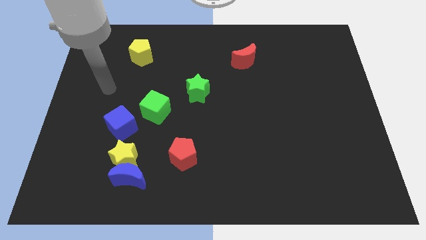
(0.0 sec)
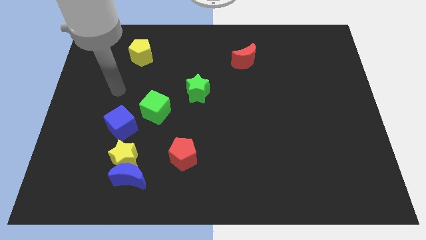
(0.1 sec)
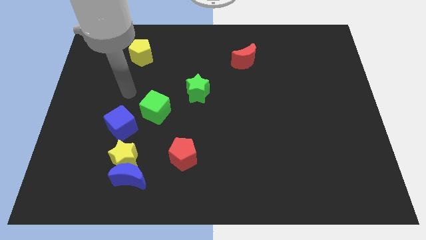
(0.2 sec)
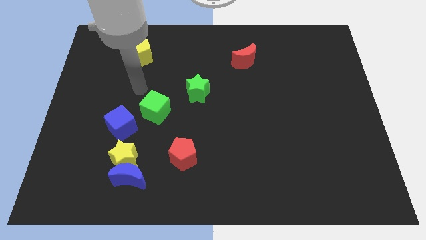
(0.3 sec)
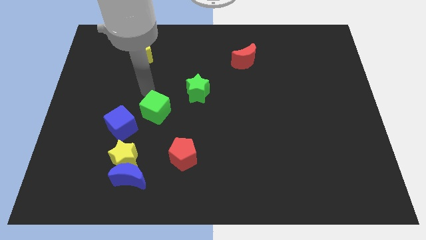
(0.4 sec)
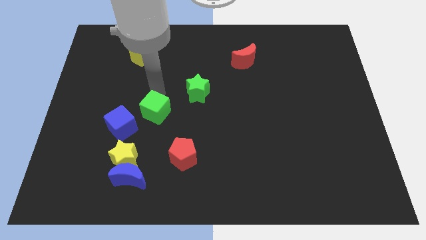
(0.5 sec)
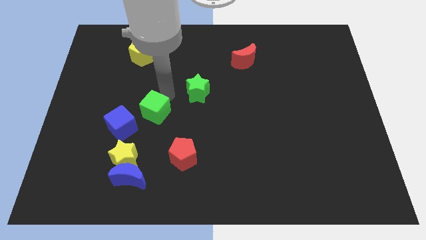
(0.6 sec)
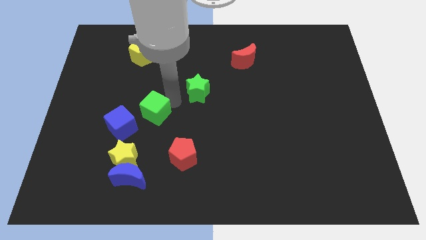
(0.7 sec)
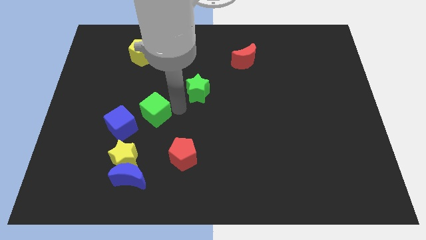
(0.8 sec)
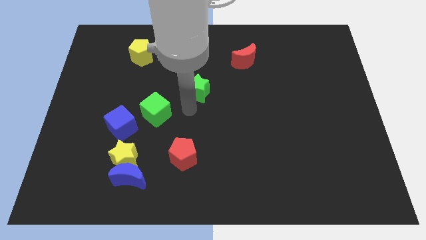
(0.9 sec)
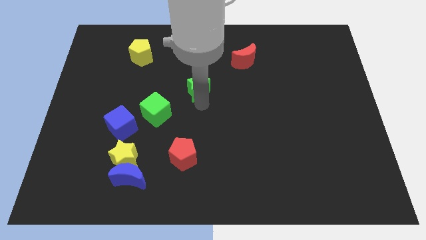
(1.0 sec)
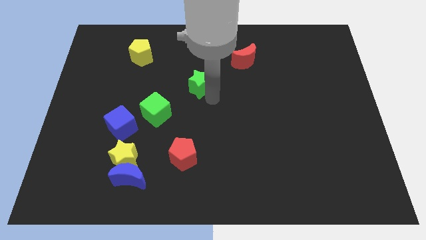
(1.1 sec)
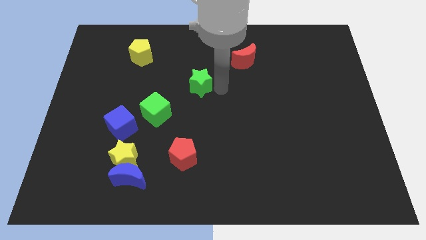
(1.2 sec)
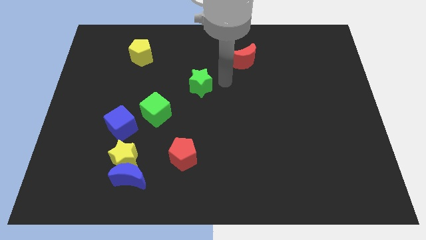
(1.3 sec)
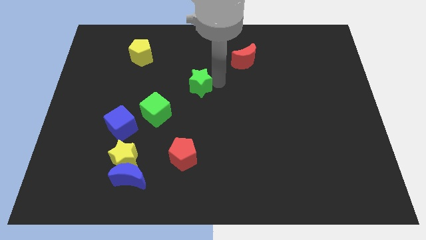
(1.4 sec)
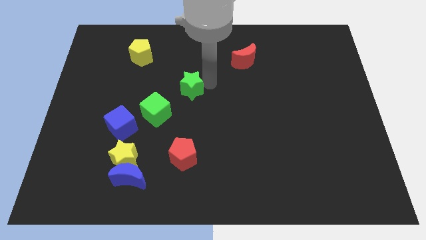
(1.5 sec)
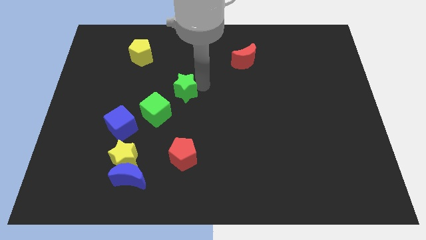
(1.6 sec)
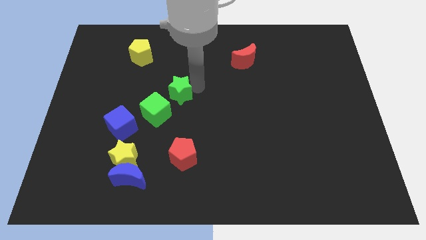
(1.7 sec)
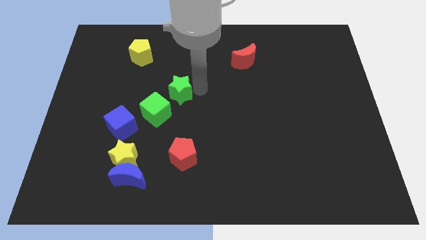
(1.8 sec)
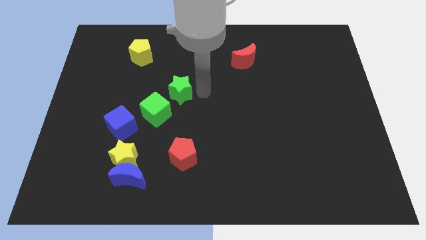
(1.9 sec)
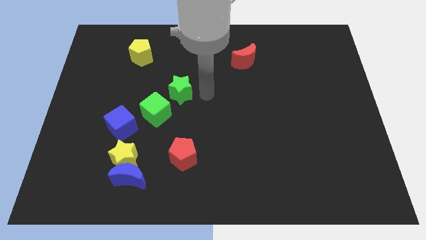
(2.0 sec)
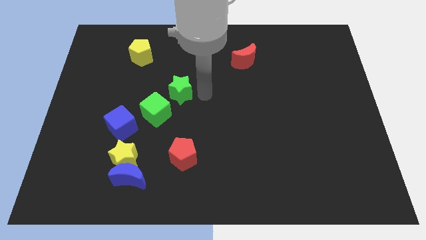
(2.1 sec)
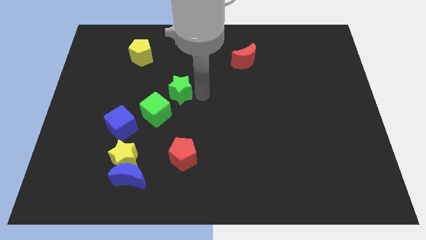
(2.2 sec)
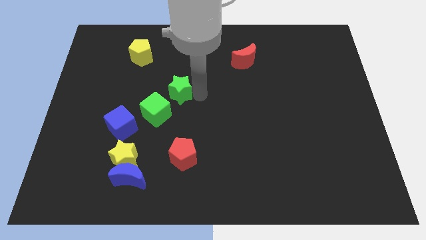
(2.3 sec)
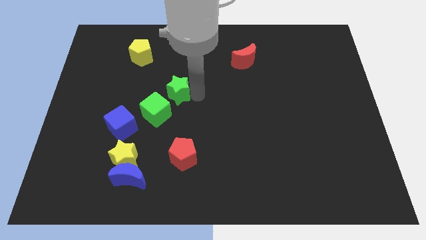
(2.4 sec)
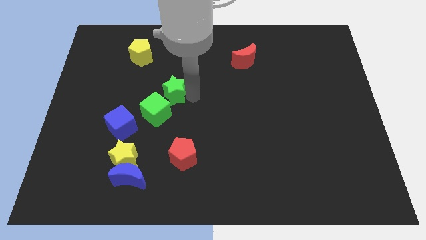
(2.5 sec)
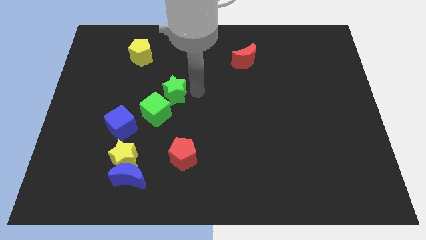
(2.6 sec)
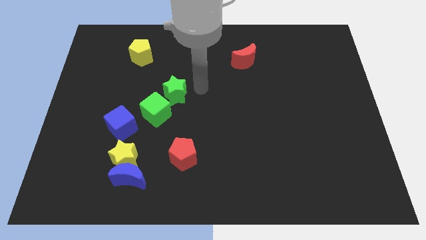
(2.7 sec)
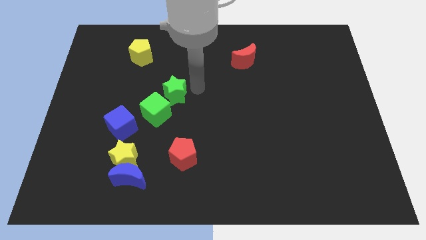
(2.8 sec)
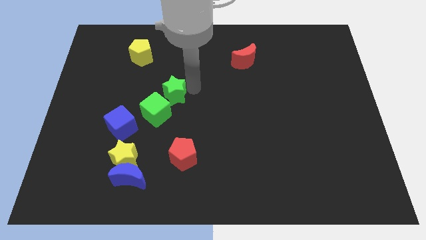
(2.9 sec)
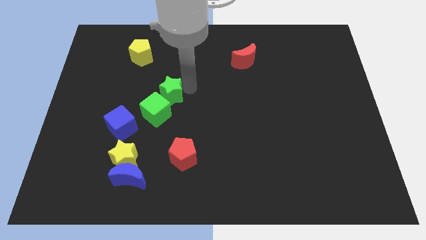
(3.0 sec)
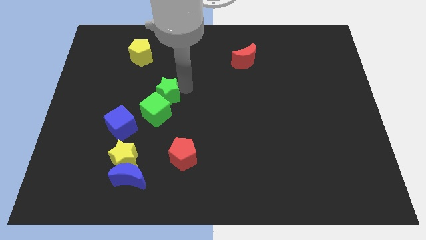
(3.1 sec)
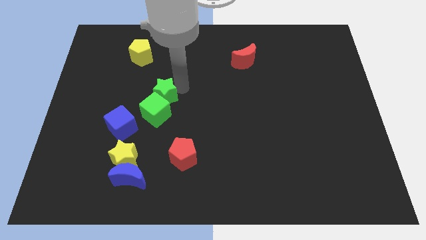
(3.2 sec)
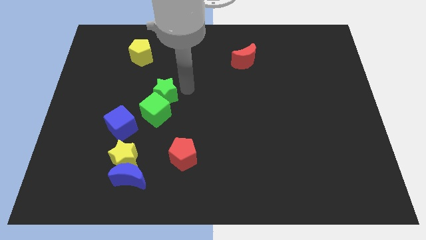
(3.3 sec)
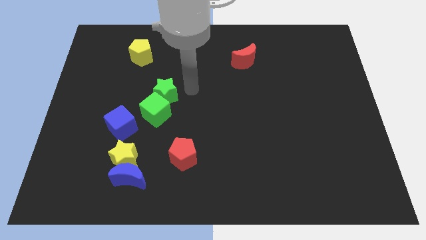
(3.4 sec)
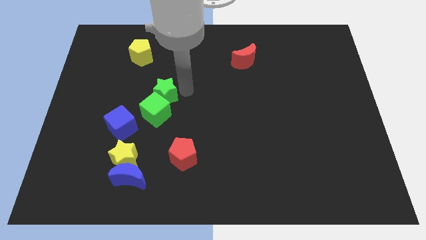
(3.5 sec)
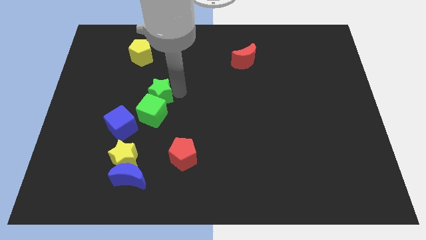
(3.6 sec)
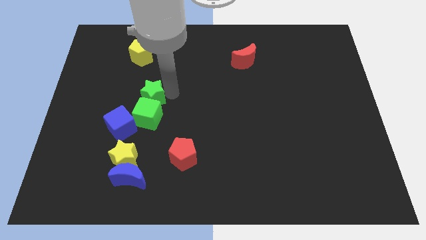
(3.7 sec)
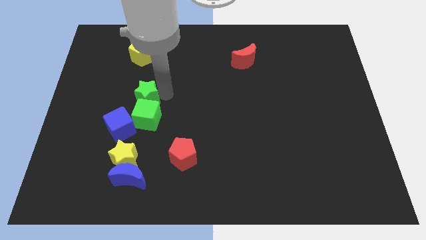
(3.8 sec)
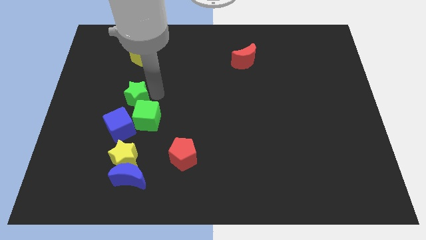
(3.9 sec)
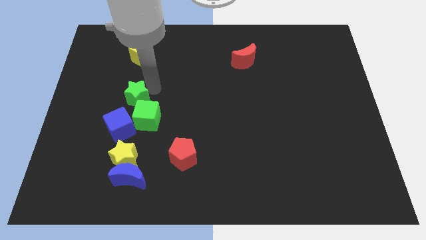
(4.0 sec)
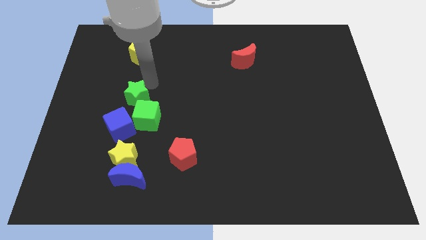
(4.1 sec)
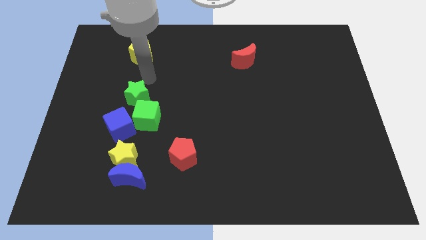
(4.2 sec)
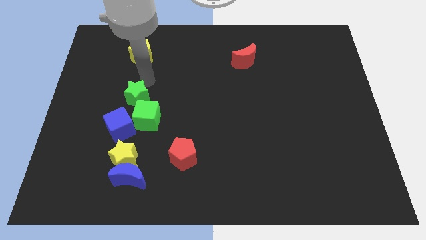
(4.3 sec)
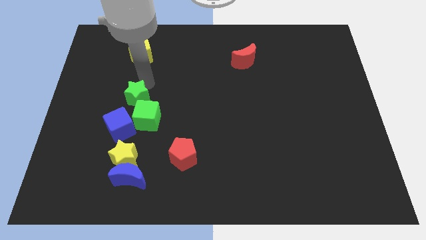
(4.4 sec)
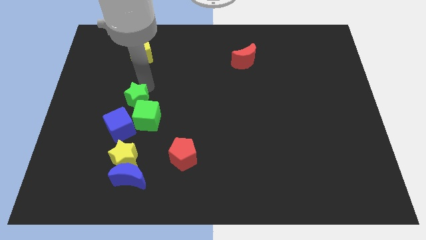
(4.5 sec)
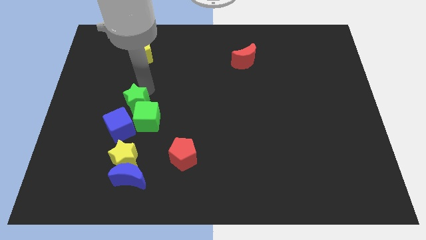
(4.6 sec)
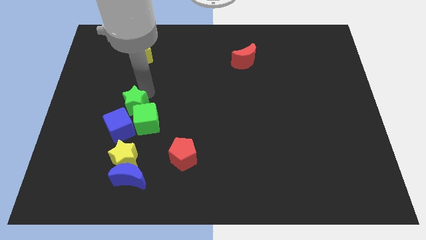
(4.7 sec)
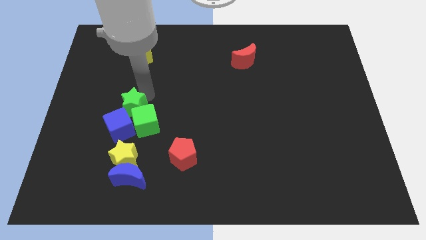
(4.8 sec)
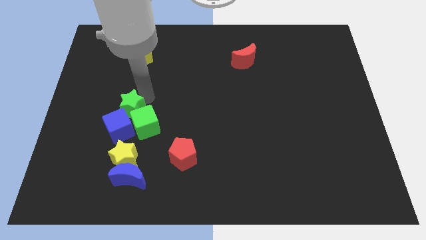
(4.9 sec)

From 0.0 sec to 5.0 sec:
move the green star next to the blue cube

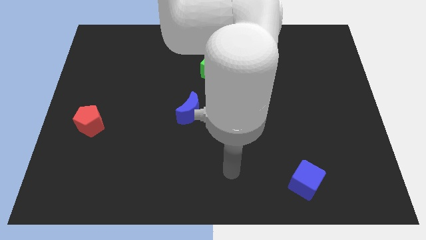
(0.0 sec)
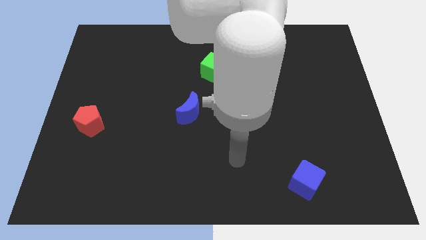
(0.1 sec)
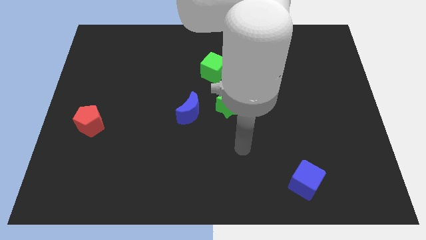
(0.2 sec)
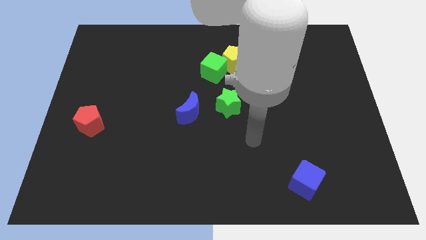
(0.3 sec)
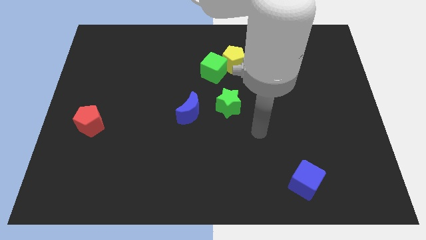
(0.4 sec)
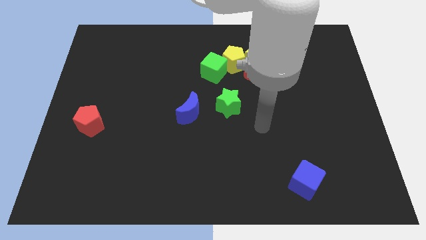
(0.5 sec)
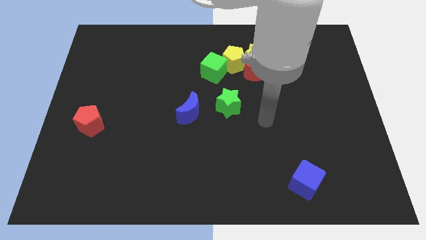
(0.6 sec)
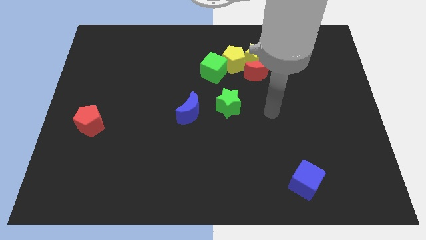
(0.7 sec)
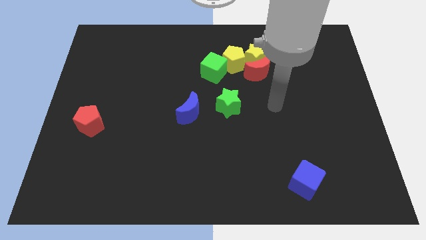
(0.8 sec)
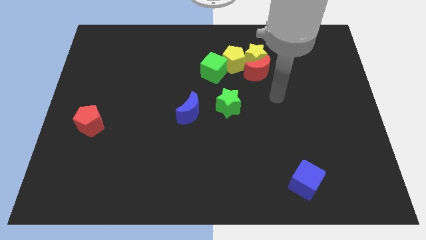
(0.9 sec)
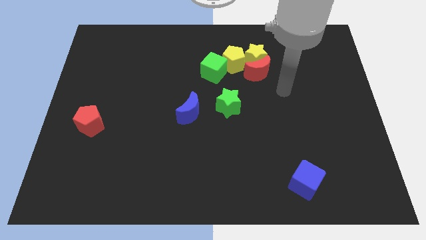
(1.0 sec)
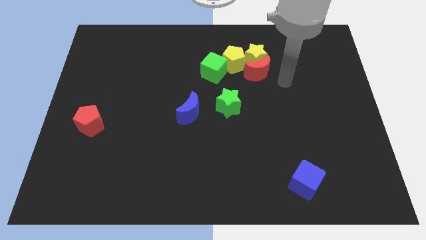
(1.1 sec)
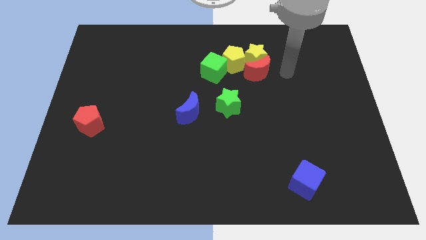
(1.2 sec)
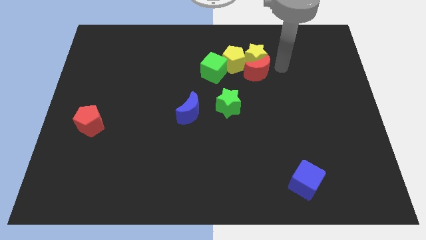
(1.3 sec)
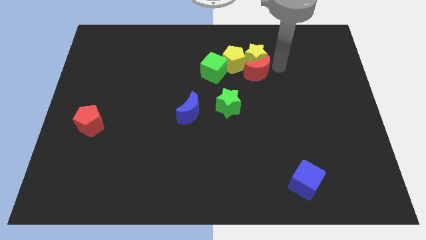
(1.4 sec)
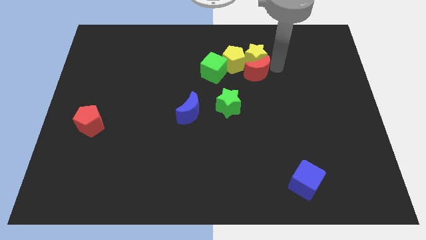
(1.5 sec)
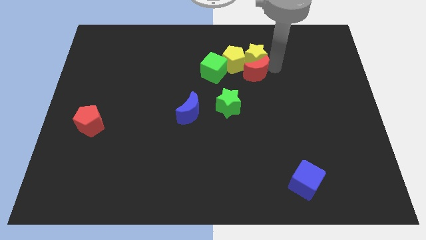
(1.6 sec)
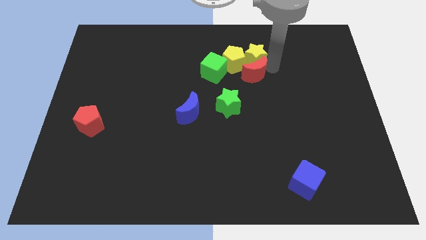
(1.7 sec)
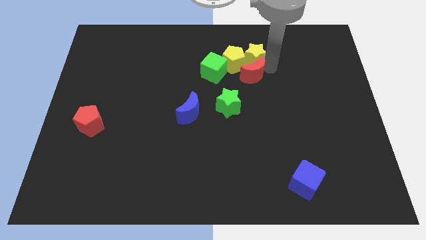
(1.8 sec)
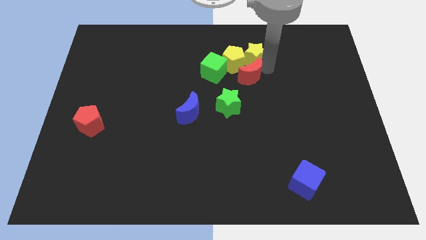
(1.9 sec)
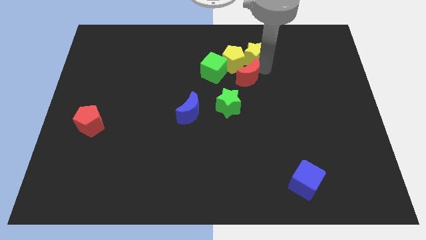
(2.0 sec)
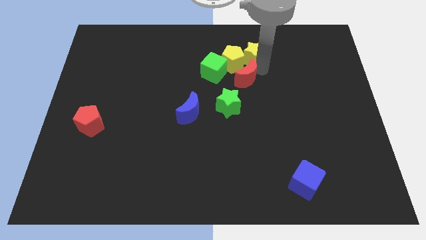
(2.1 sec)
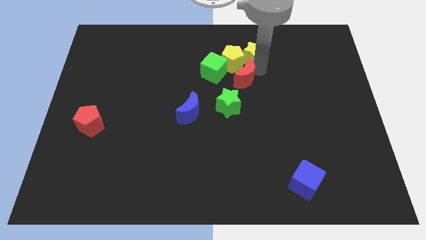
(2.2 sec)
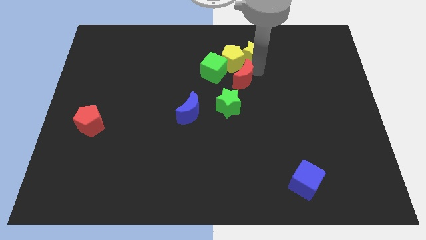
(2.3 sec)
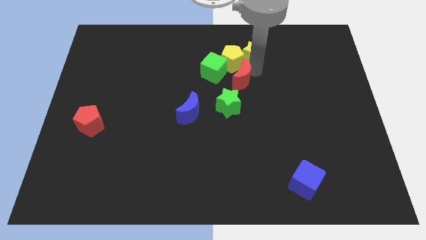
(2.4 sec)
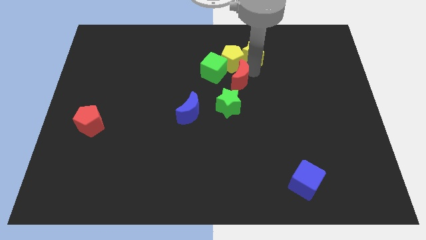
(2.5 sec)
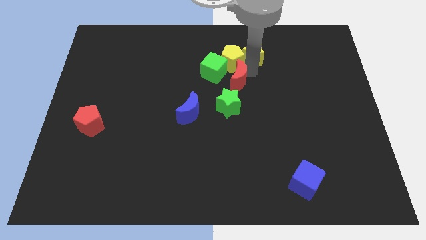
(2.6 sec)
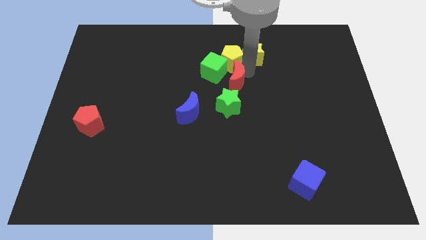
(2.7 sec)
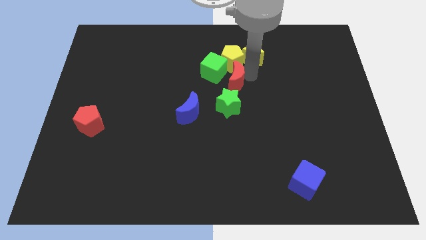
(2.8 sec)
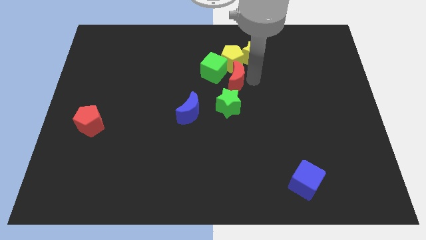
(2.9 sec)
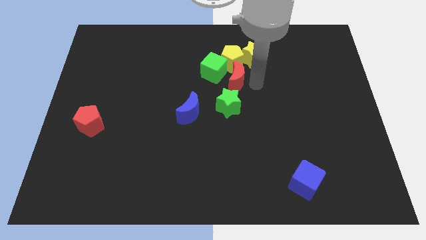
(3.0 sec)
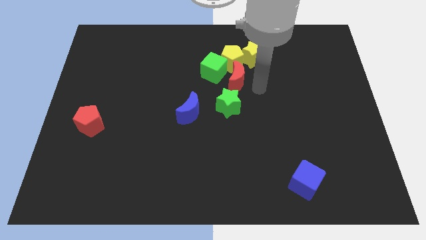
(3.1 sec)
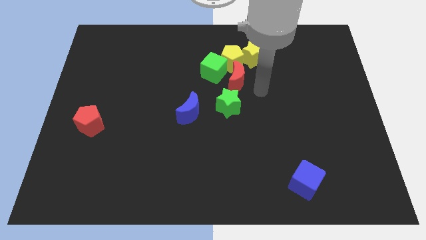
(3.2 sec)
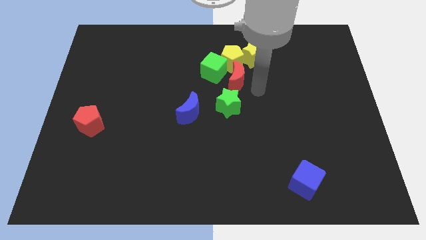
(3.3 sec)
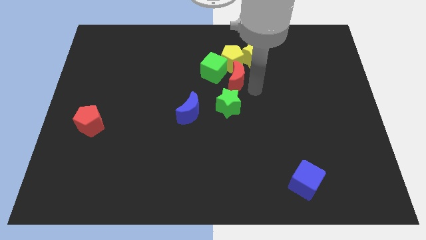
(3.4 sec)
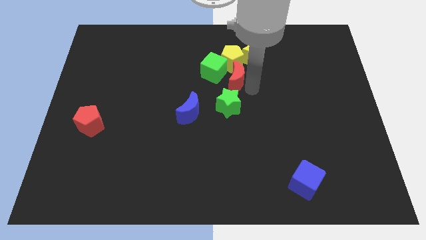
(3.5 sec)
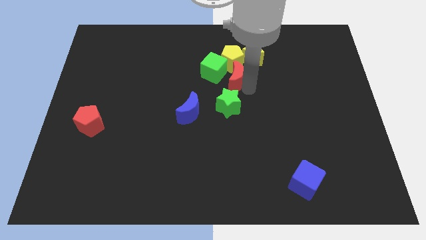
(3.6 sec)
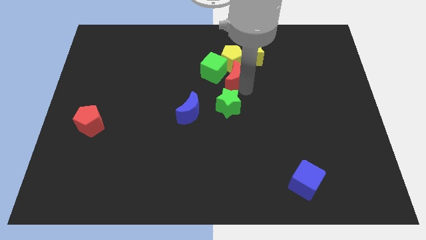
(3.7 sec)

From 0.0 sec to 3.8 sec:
push the red moon next to the green cube
